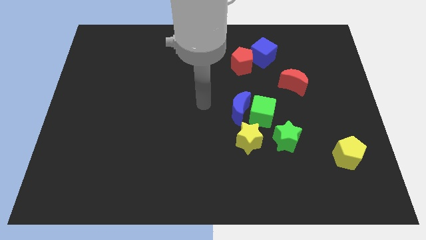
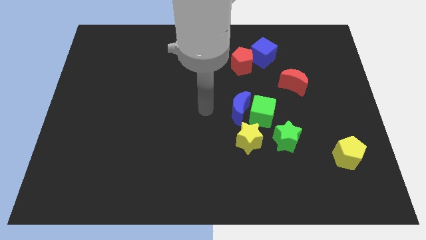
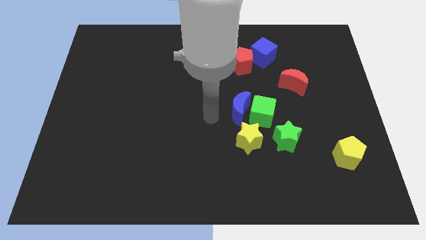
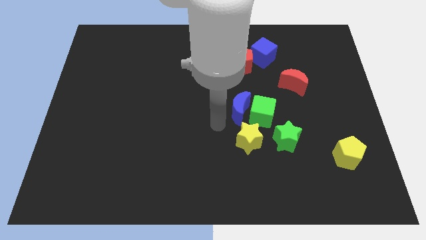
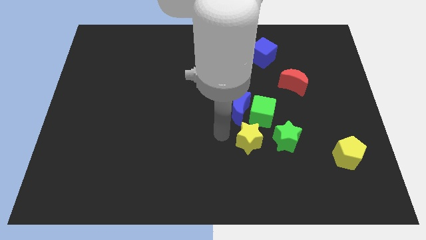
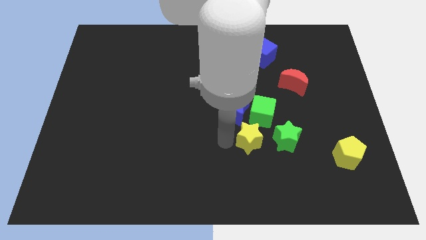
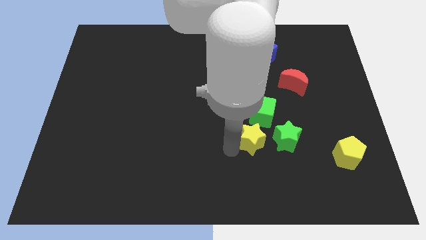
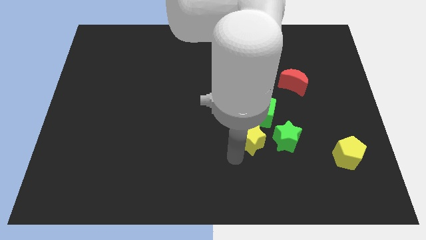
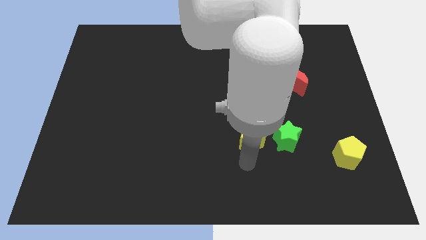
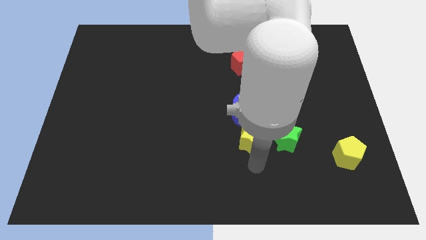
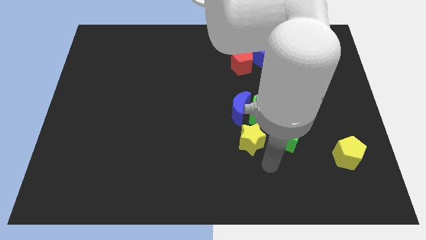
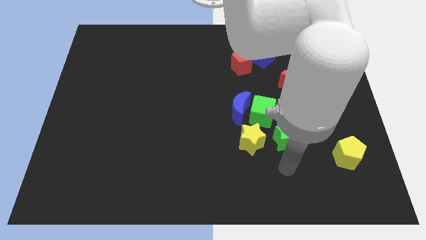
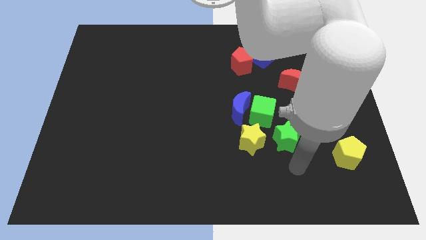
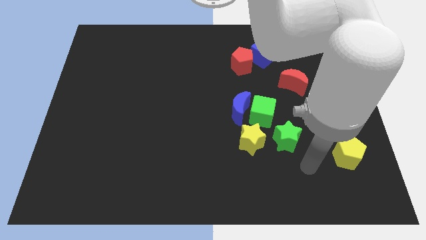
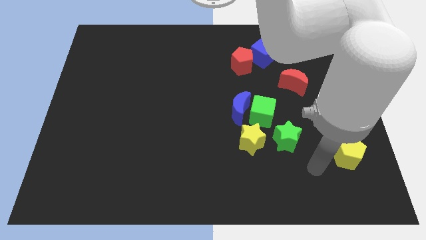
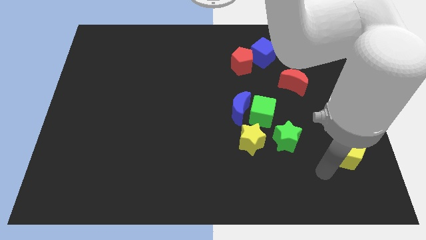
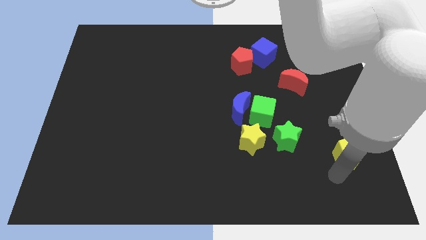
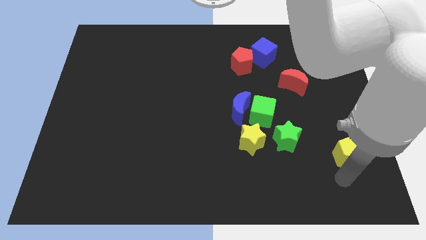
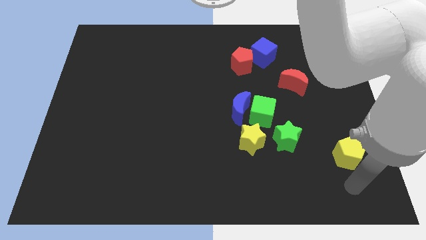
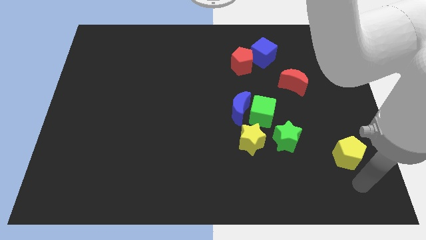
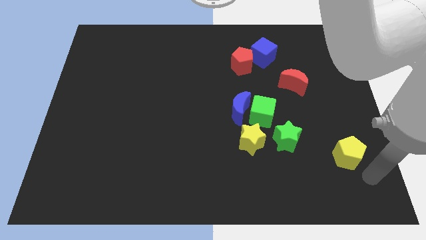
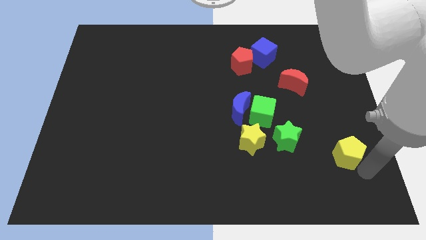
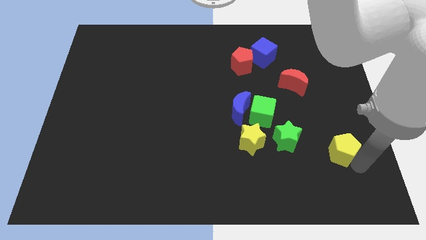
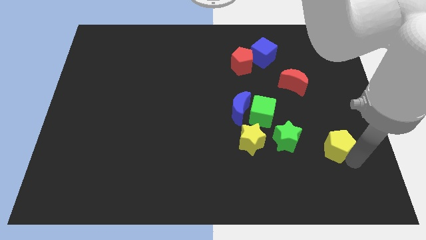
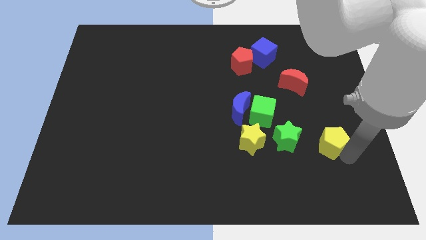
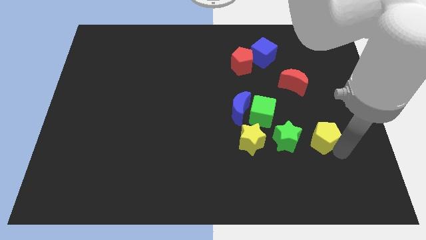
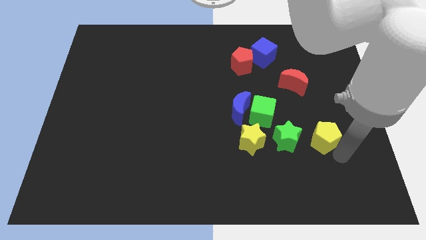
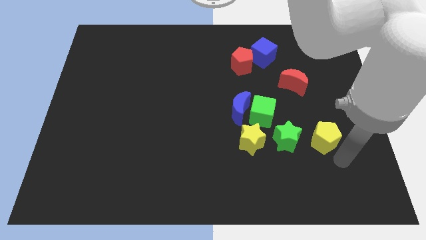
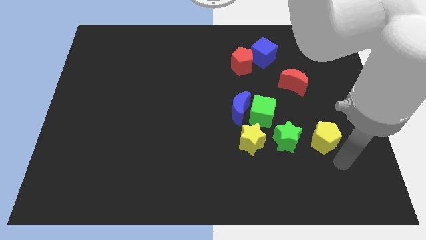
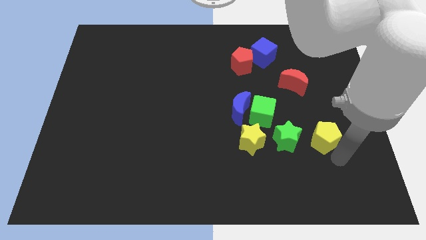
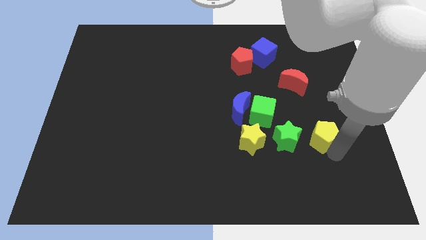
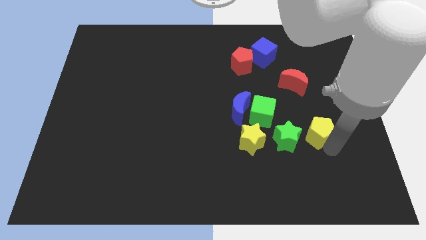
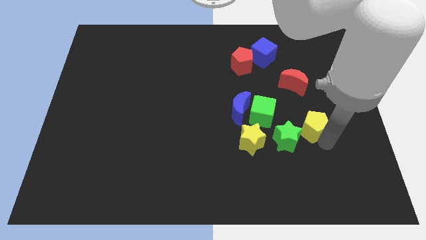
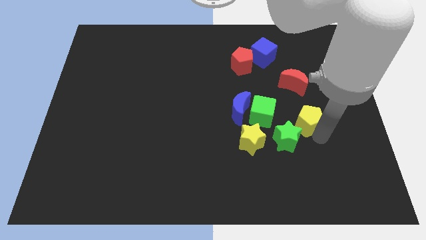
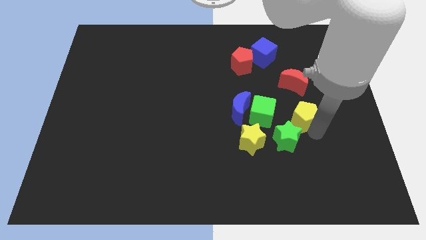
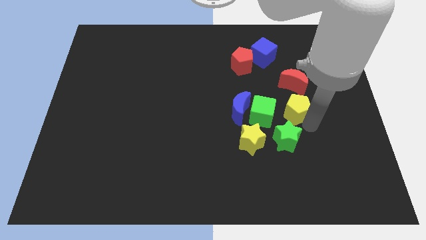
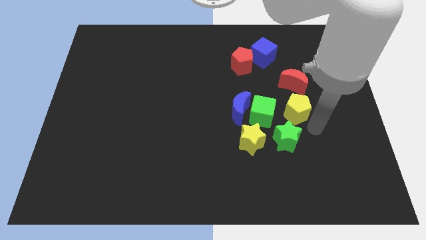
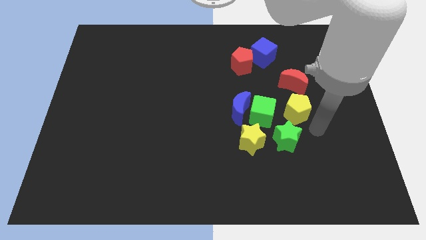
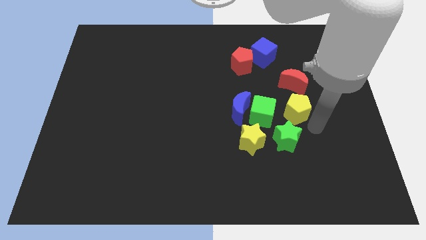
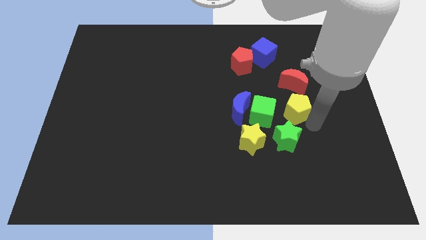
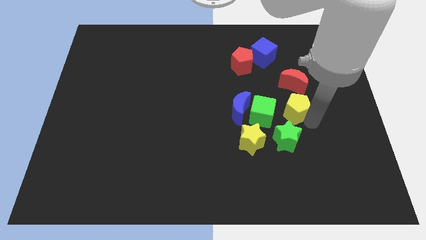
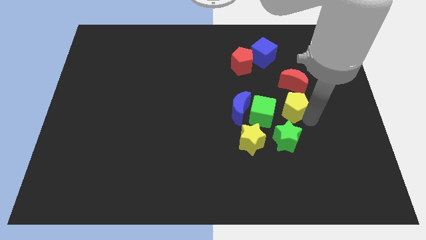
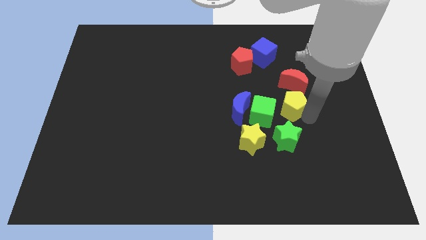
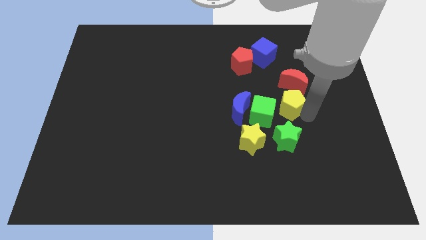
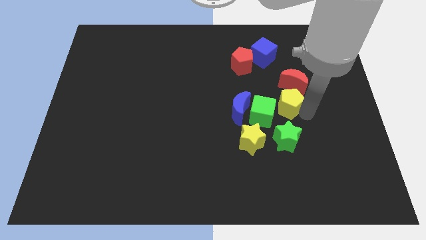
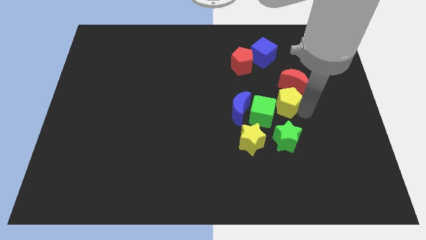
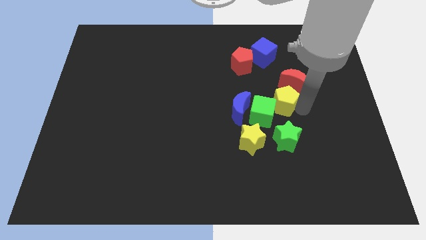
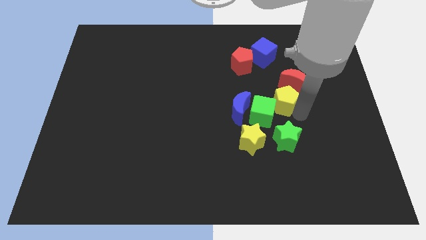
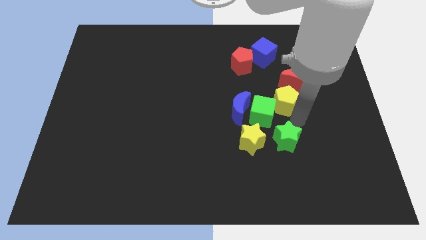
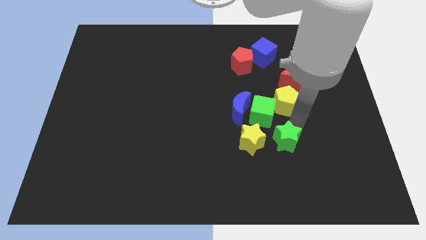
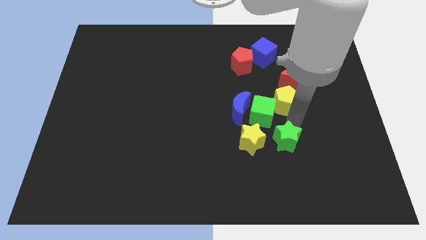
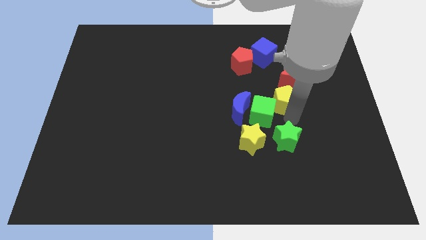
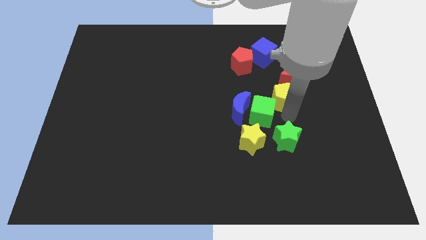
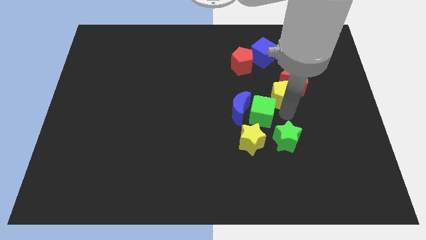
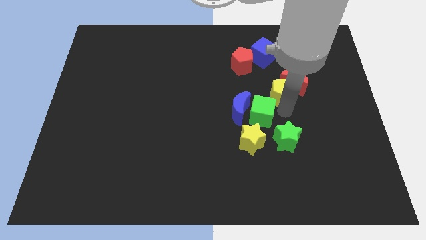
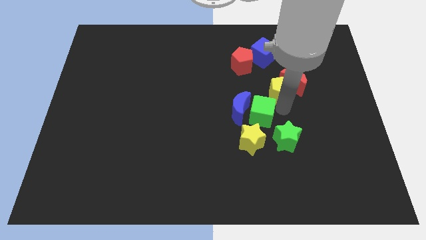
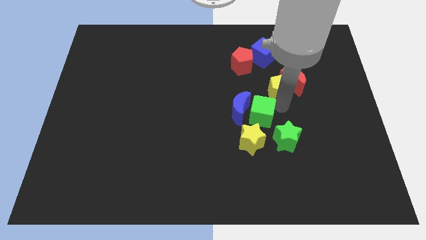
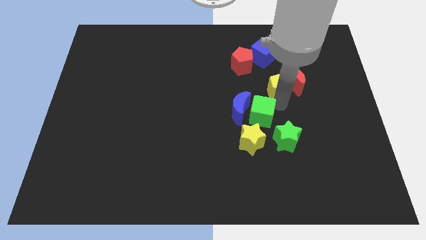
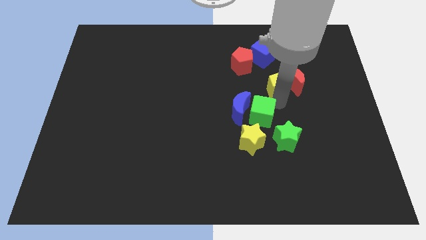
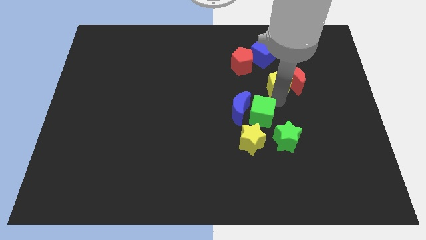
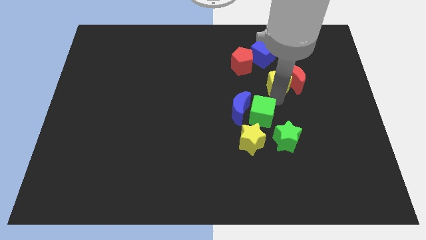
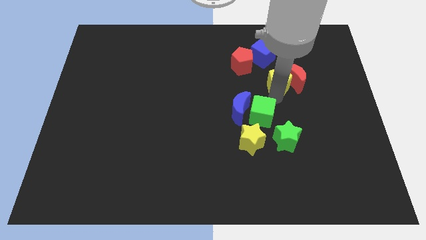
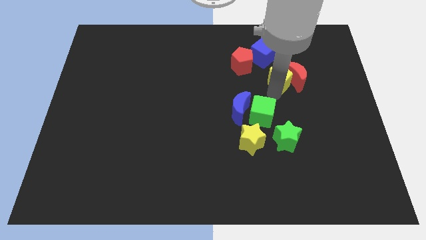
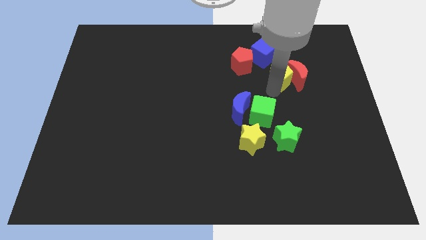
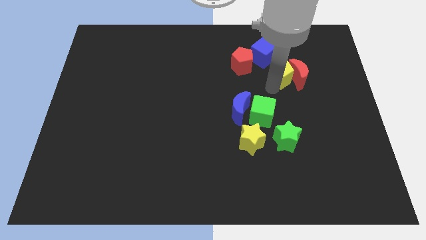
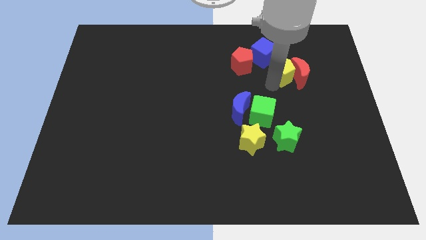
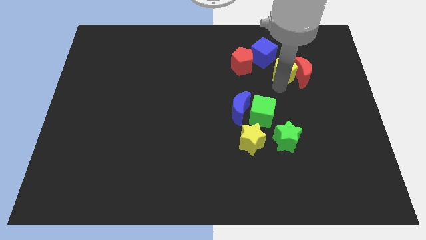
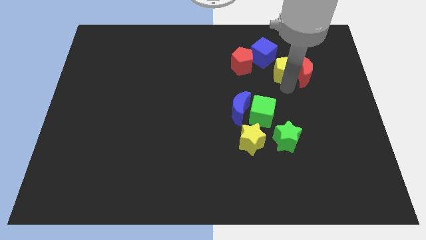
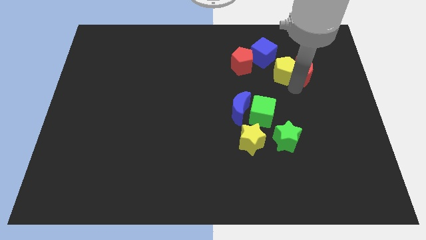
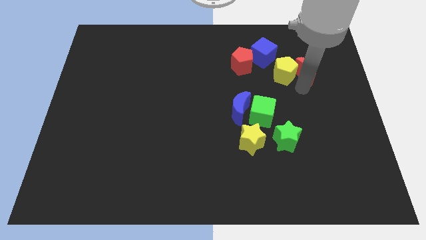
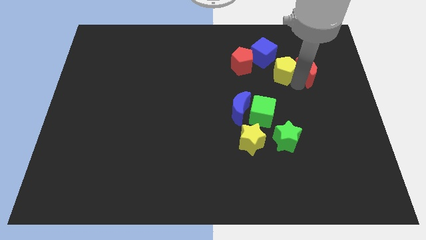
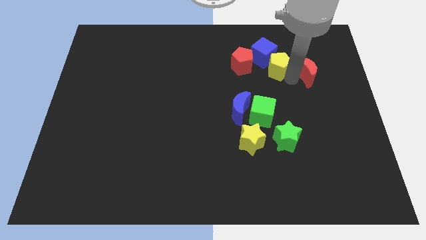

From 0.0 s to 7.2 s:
put the yellow pentagon to the blue cube
